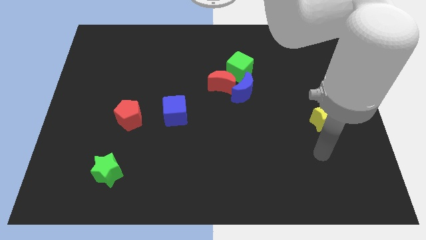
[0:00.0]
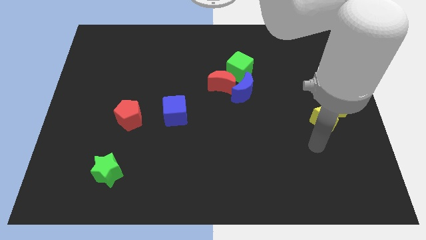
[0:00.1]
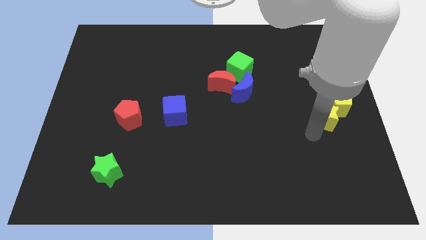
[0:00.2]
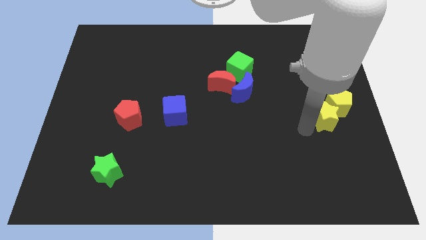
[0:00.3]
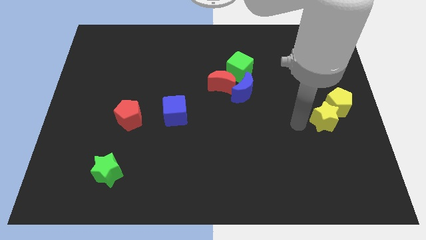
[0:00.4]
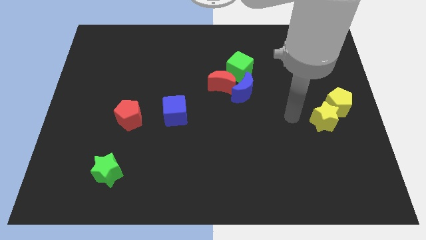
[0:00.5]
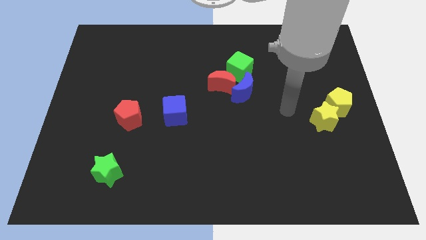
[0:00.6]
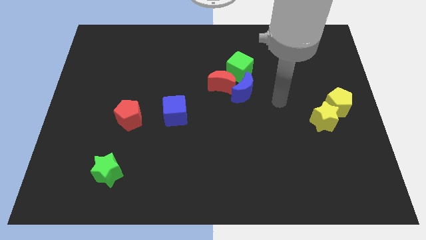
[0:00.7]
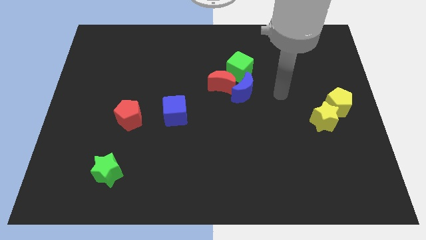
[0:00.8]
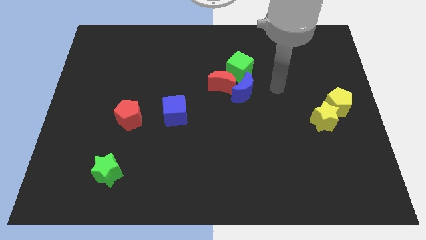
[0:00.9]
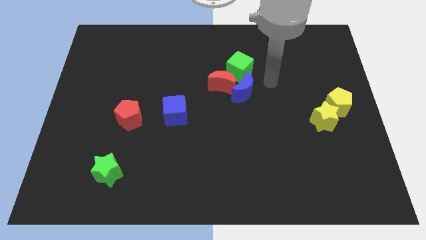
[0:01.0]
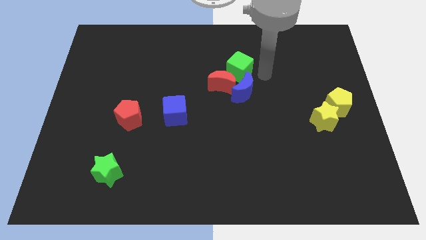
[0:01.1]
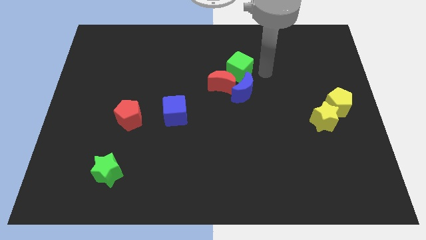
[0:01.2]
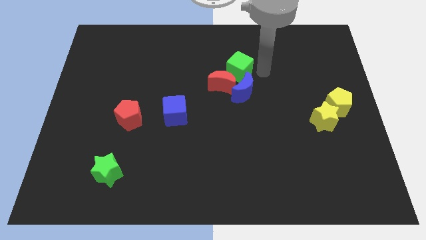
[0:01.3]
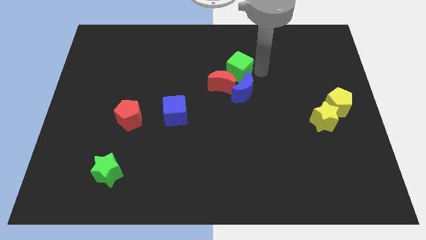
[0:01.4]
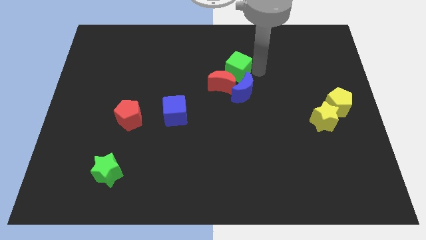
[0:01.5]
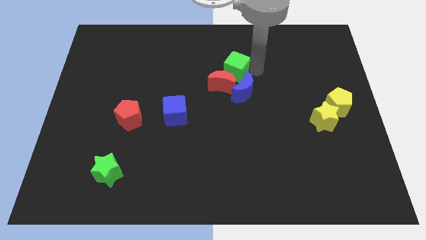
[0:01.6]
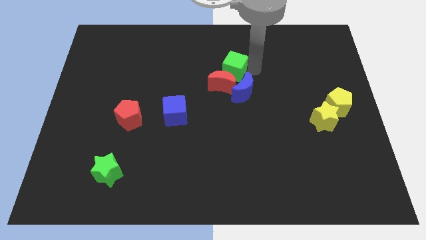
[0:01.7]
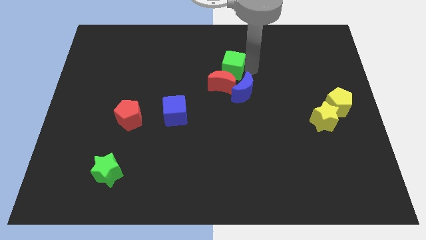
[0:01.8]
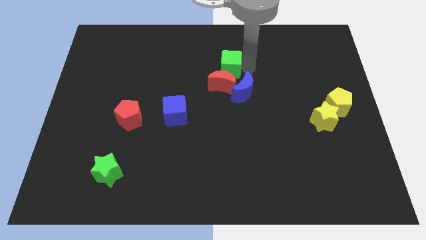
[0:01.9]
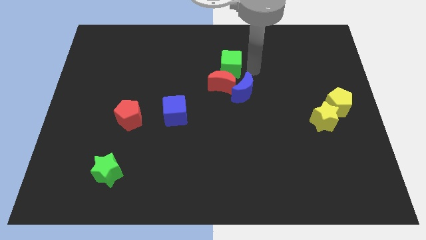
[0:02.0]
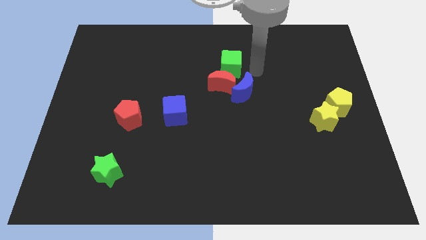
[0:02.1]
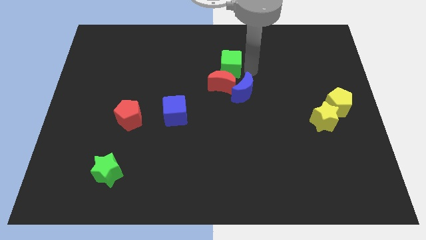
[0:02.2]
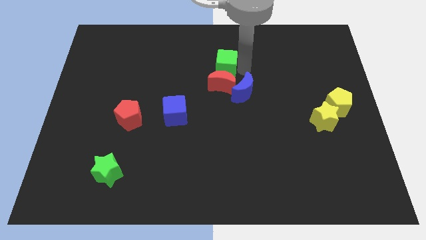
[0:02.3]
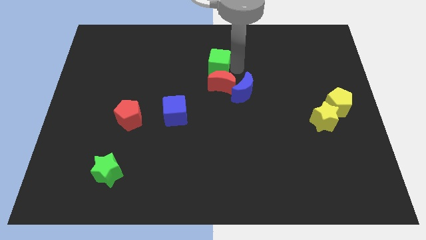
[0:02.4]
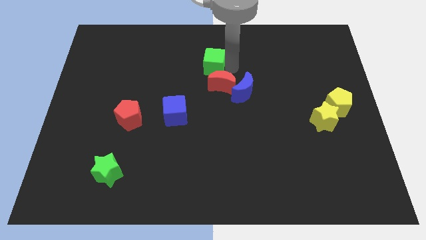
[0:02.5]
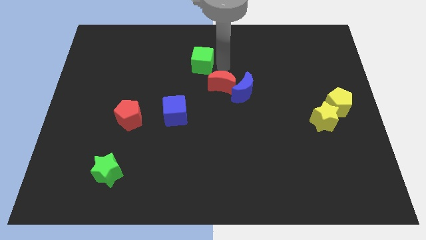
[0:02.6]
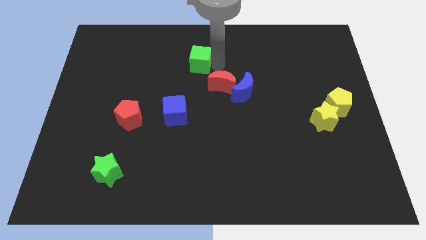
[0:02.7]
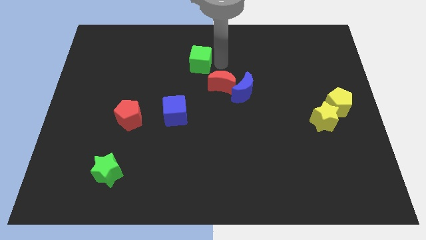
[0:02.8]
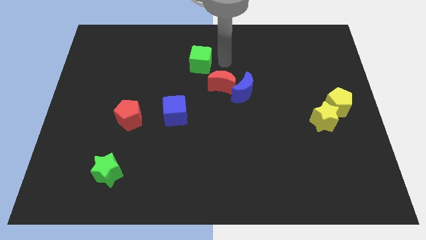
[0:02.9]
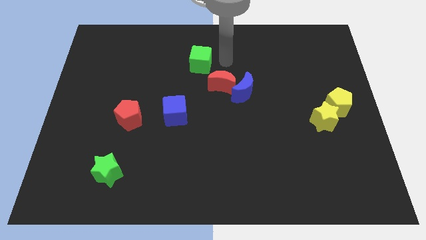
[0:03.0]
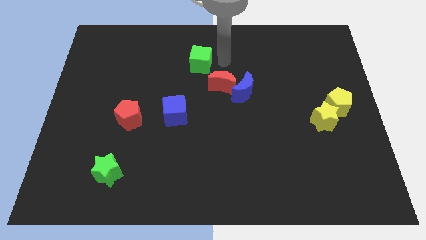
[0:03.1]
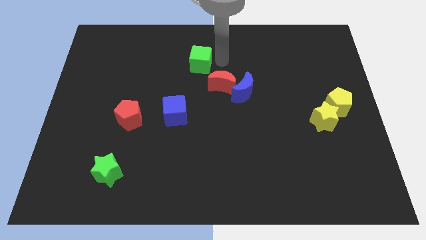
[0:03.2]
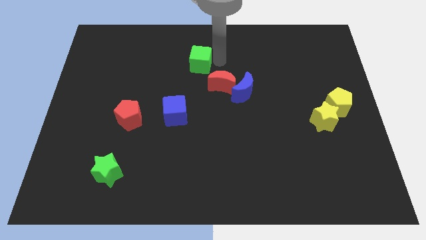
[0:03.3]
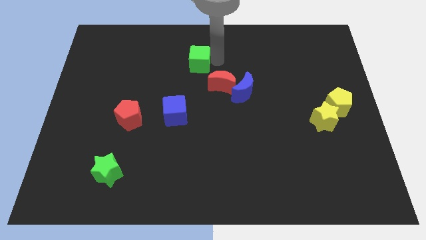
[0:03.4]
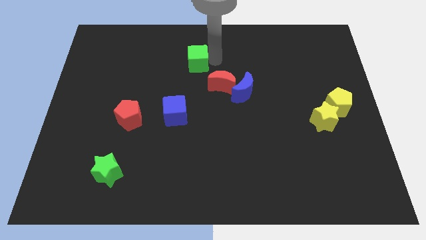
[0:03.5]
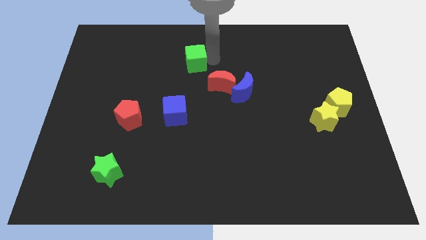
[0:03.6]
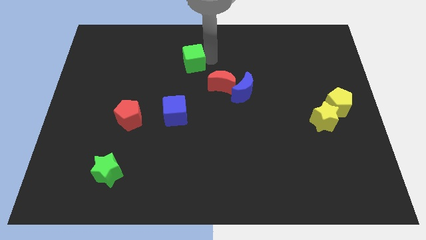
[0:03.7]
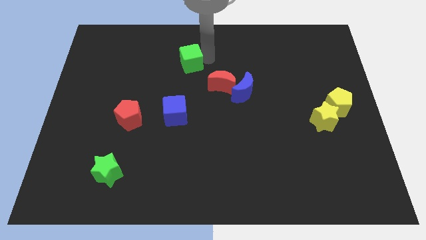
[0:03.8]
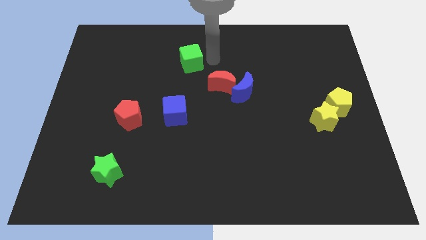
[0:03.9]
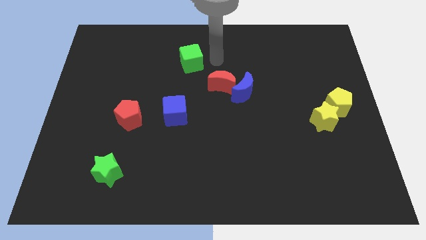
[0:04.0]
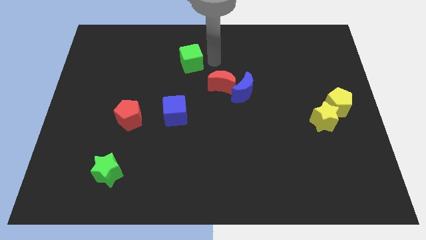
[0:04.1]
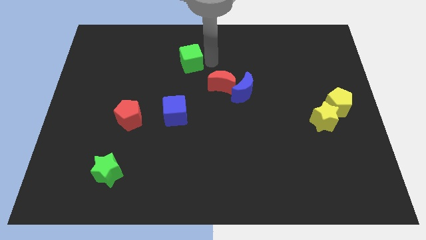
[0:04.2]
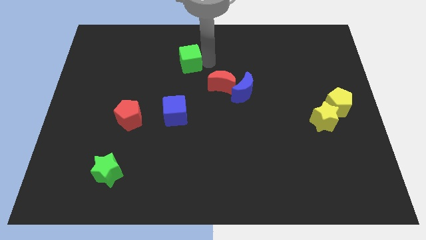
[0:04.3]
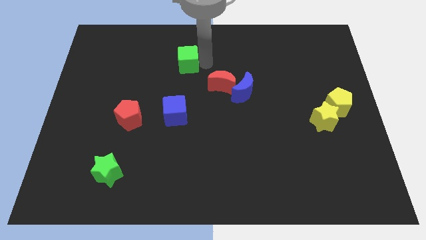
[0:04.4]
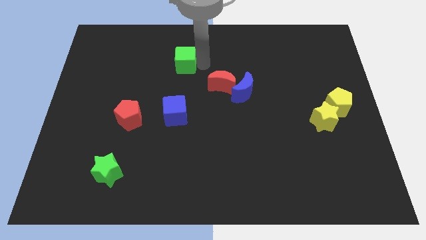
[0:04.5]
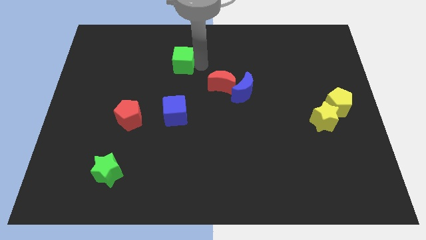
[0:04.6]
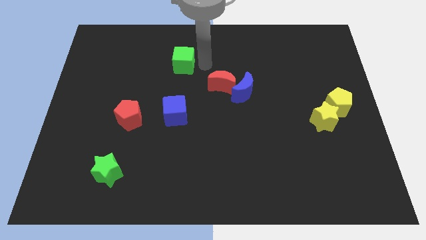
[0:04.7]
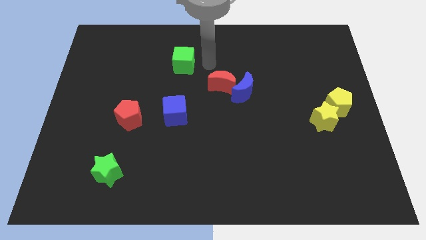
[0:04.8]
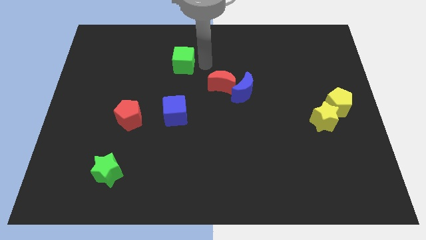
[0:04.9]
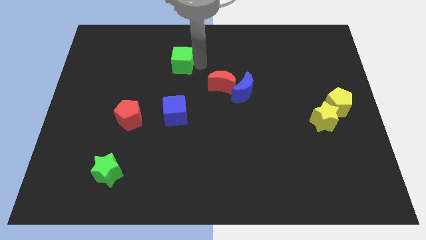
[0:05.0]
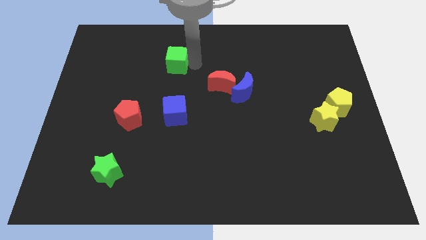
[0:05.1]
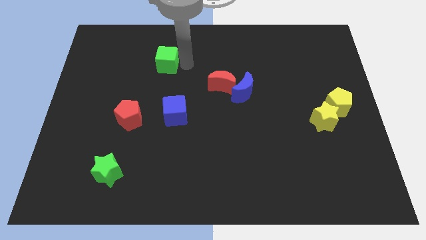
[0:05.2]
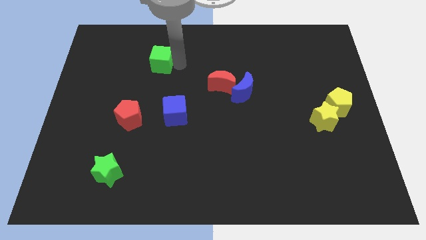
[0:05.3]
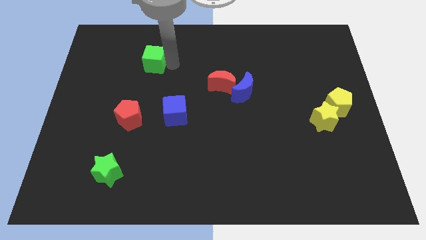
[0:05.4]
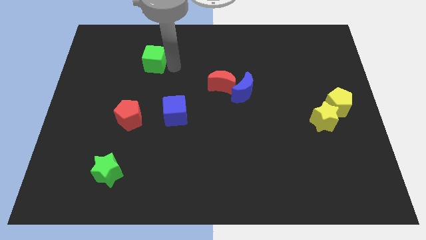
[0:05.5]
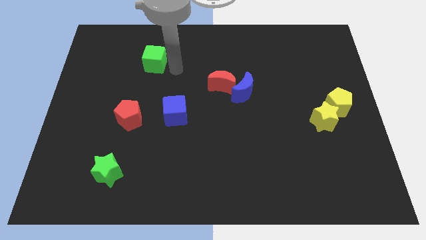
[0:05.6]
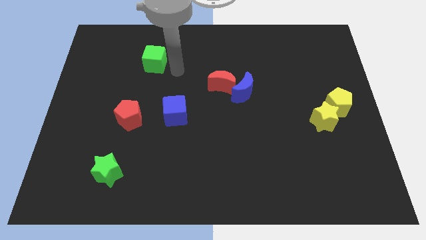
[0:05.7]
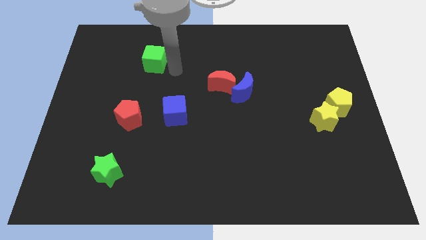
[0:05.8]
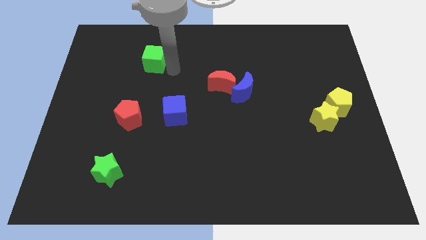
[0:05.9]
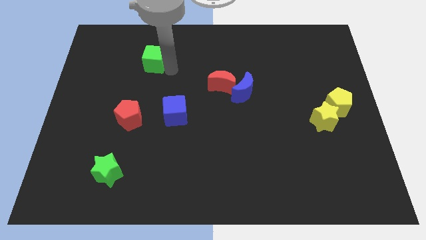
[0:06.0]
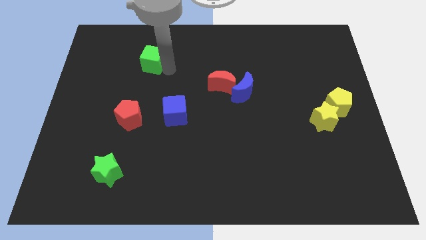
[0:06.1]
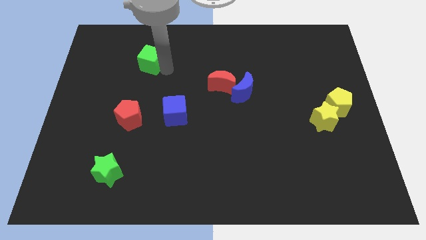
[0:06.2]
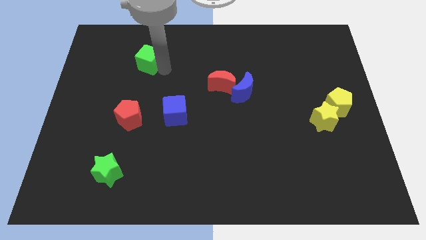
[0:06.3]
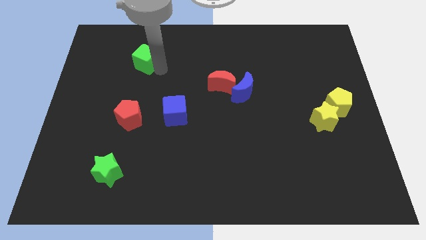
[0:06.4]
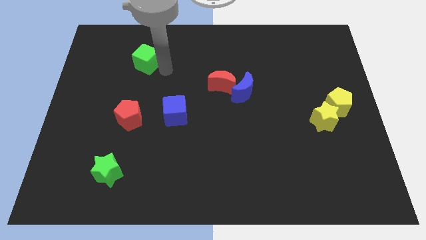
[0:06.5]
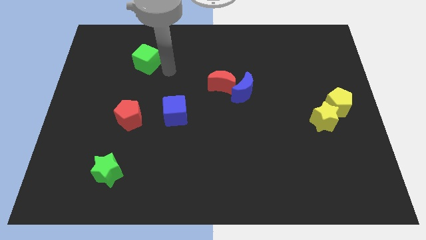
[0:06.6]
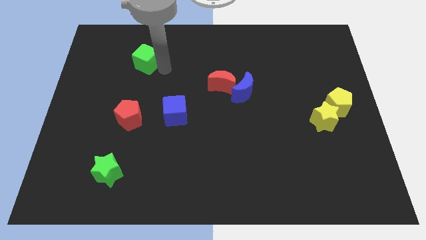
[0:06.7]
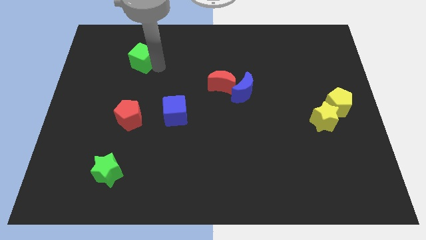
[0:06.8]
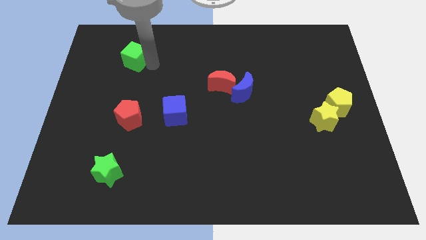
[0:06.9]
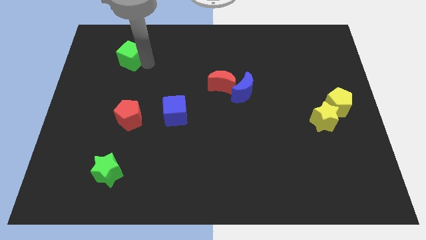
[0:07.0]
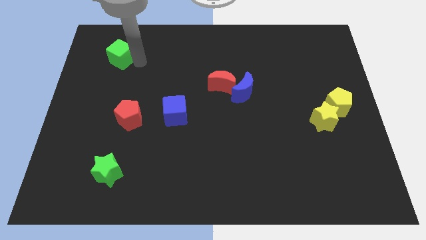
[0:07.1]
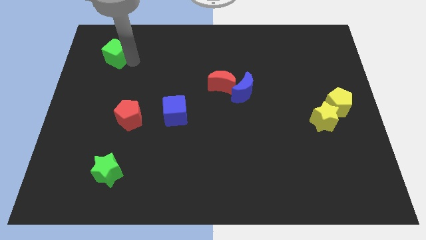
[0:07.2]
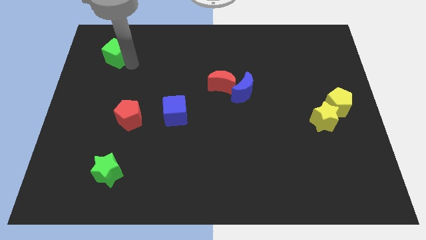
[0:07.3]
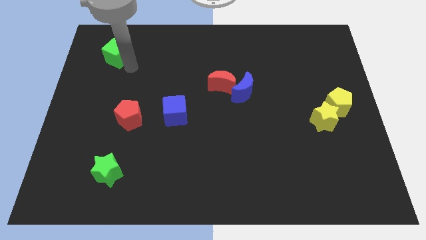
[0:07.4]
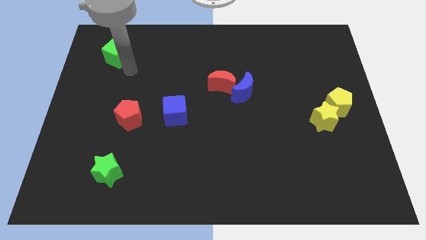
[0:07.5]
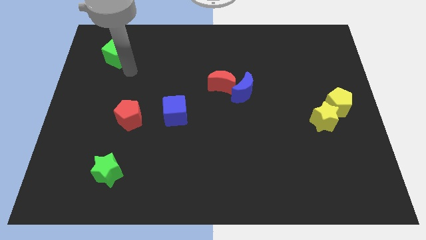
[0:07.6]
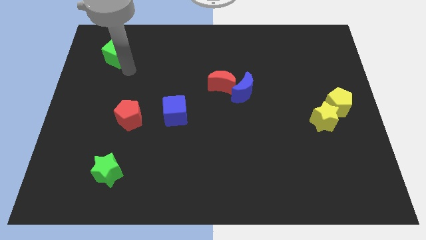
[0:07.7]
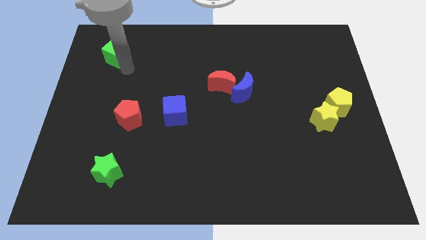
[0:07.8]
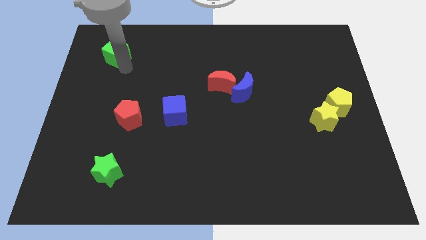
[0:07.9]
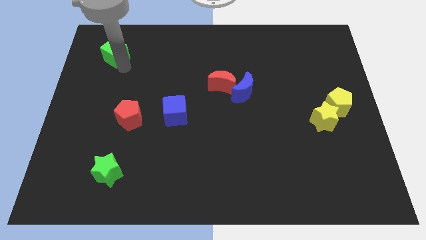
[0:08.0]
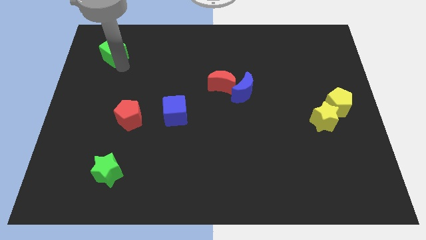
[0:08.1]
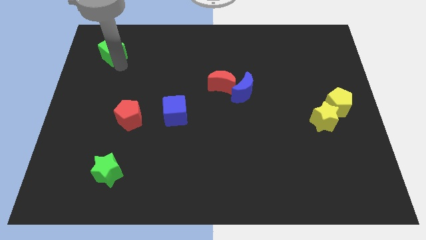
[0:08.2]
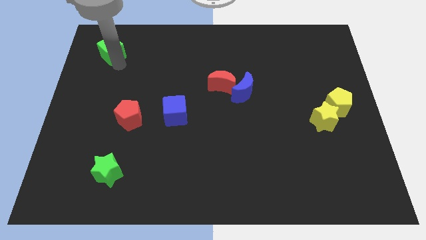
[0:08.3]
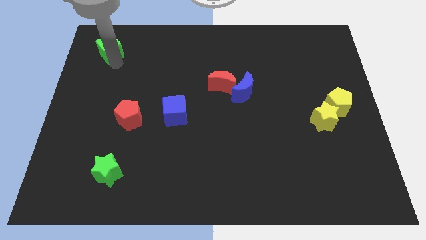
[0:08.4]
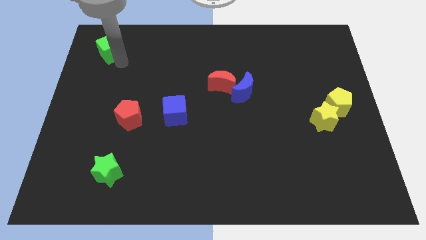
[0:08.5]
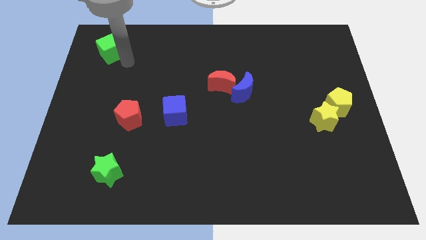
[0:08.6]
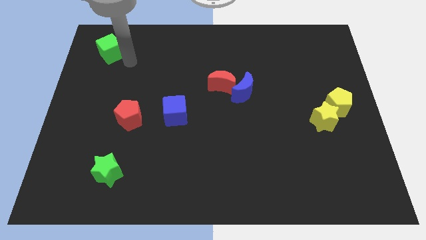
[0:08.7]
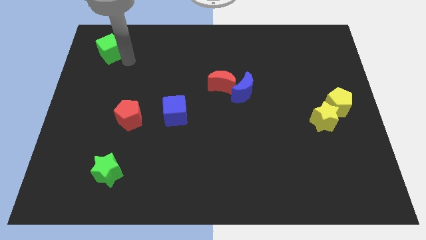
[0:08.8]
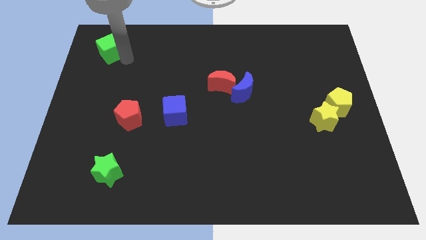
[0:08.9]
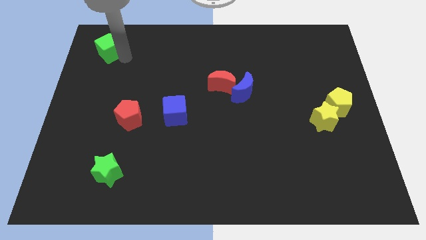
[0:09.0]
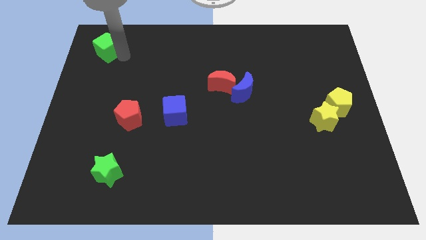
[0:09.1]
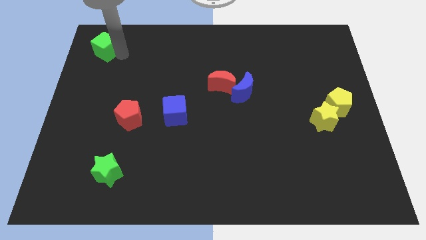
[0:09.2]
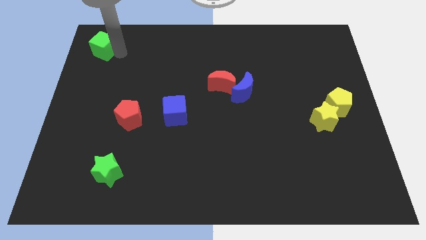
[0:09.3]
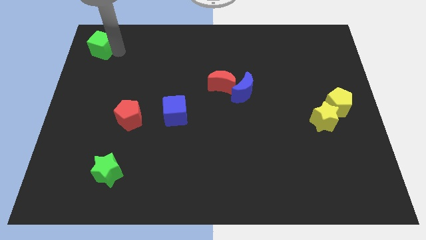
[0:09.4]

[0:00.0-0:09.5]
put the green cube to the top left
